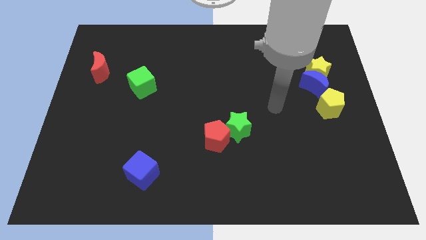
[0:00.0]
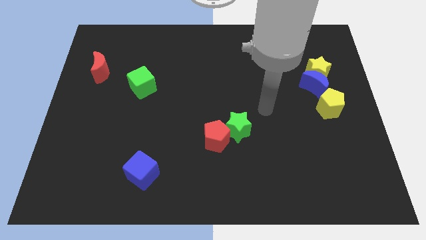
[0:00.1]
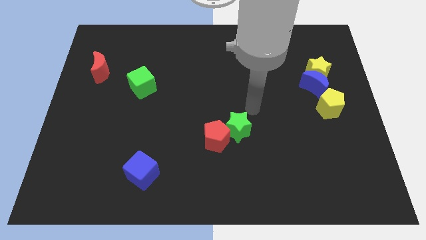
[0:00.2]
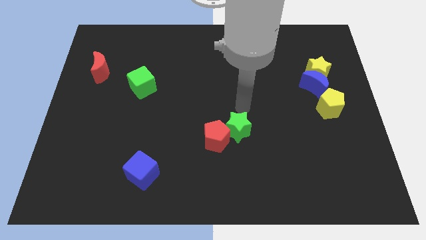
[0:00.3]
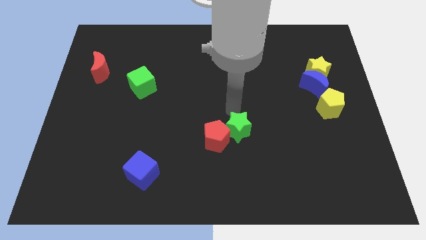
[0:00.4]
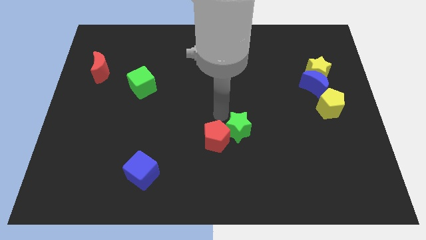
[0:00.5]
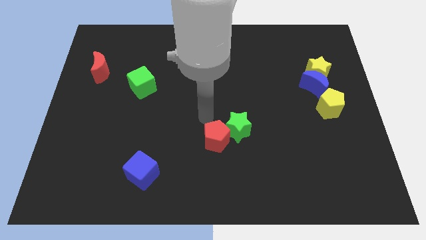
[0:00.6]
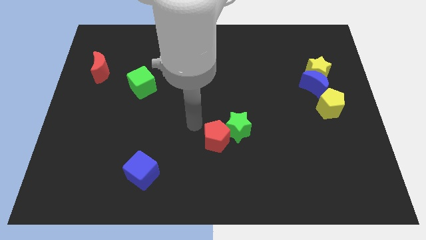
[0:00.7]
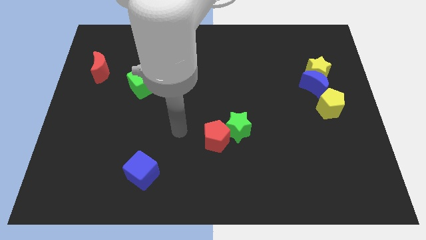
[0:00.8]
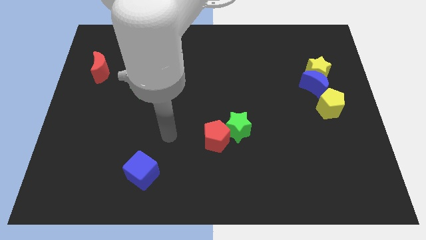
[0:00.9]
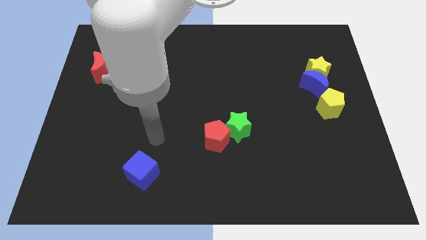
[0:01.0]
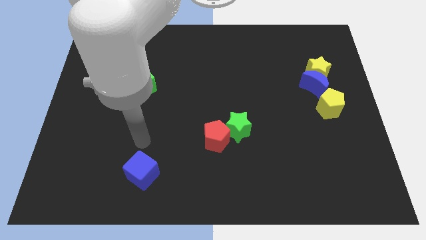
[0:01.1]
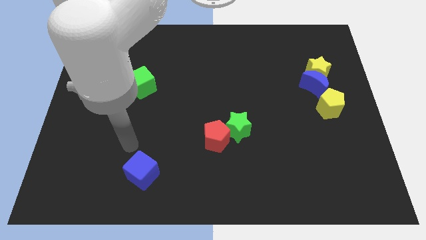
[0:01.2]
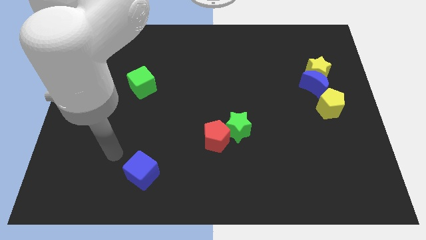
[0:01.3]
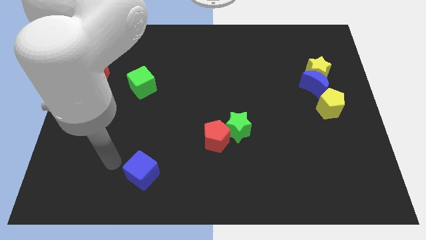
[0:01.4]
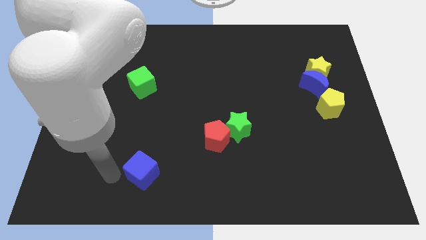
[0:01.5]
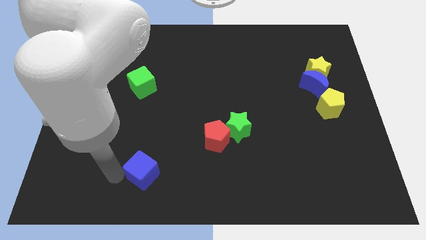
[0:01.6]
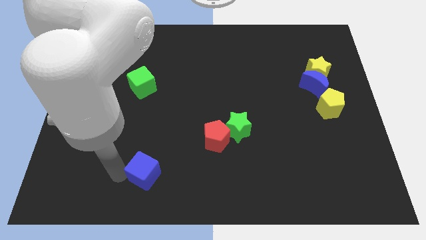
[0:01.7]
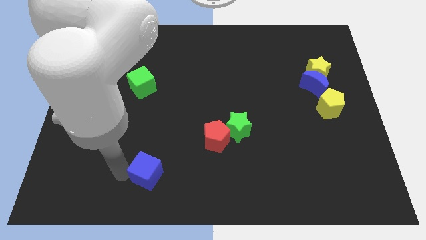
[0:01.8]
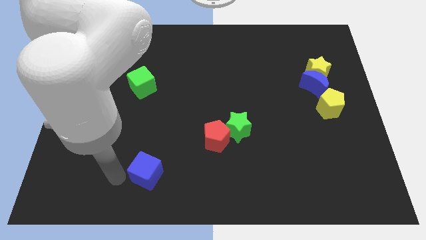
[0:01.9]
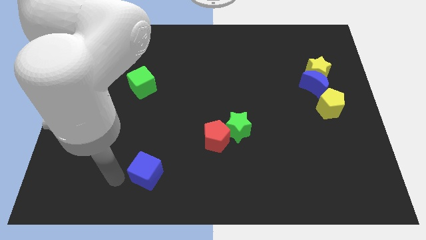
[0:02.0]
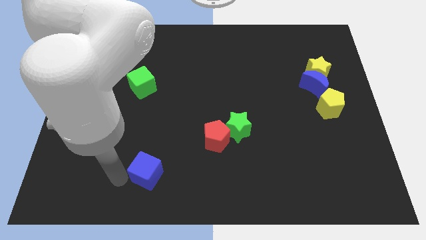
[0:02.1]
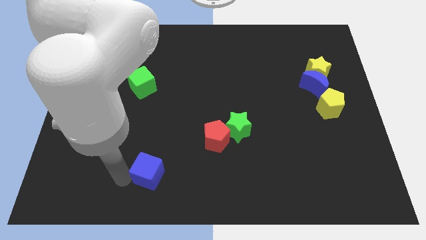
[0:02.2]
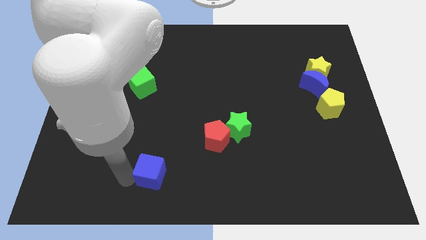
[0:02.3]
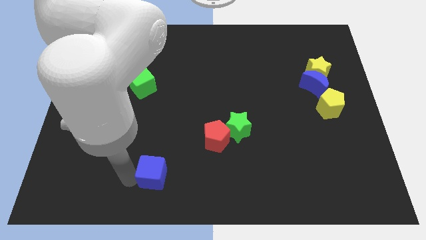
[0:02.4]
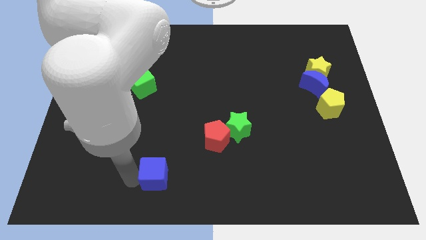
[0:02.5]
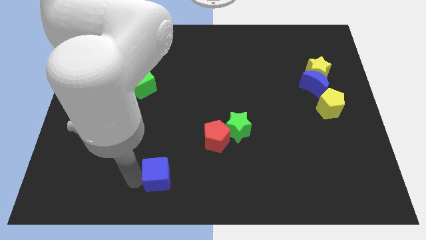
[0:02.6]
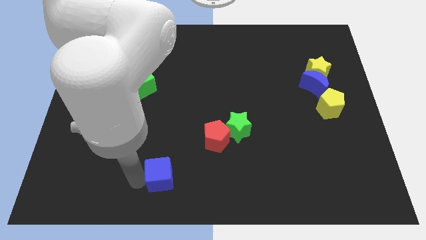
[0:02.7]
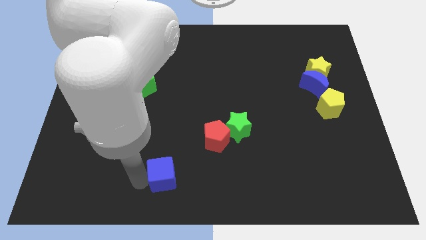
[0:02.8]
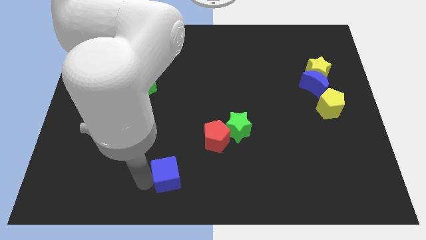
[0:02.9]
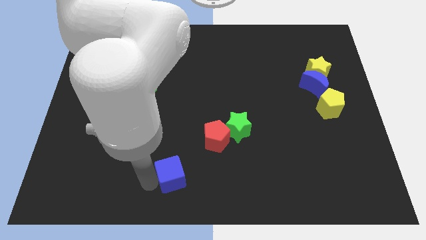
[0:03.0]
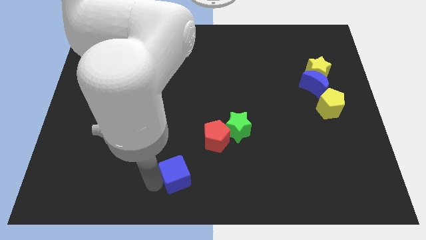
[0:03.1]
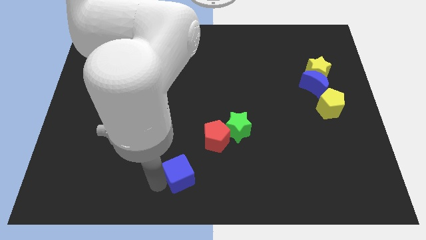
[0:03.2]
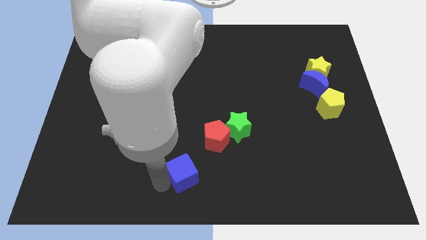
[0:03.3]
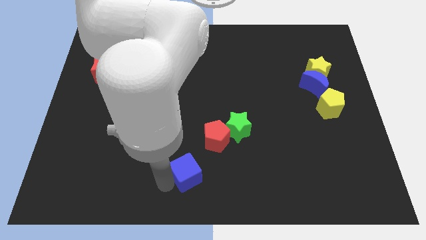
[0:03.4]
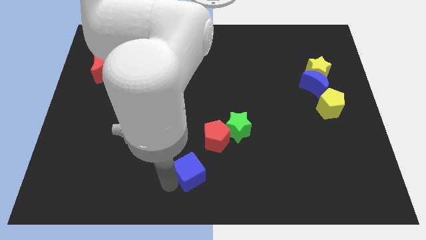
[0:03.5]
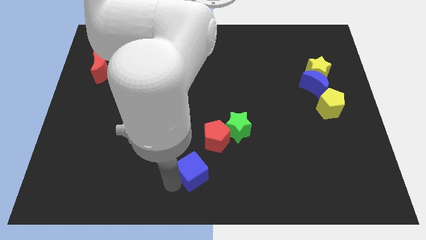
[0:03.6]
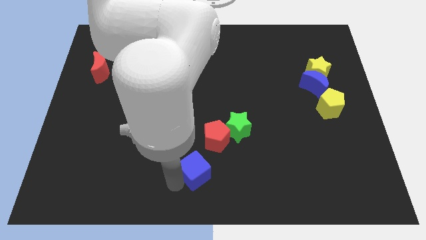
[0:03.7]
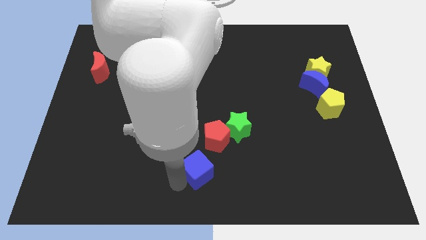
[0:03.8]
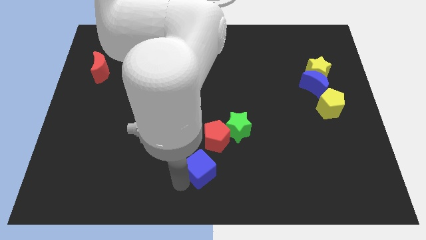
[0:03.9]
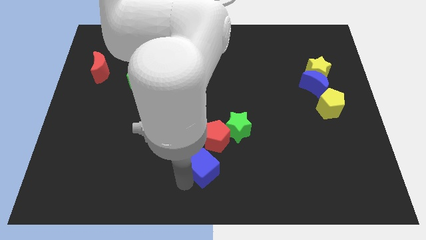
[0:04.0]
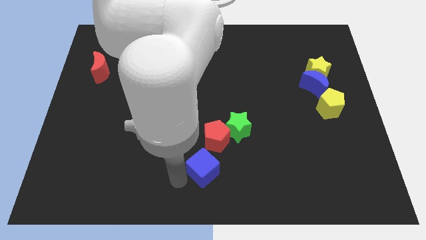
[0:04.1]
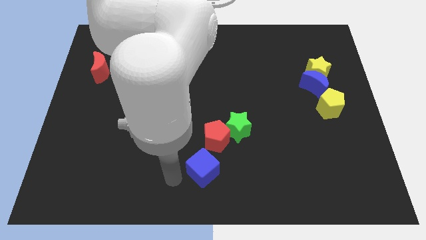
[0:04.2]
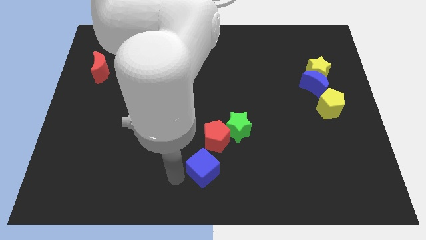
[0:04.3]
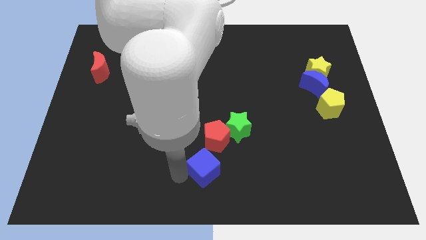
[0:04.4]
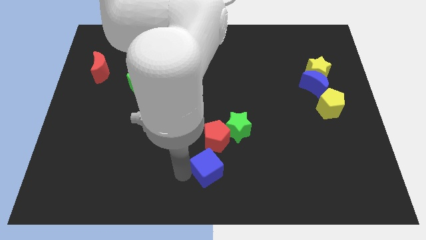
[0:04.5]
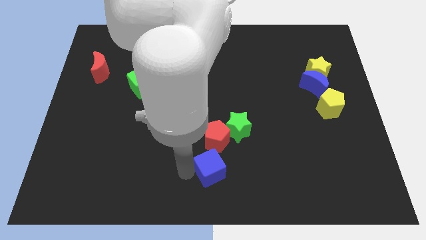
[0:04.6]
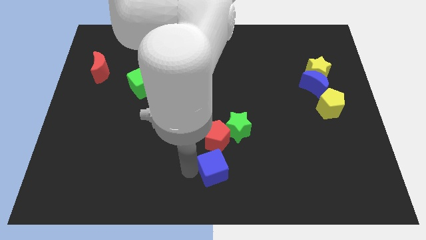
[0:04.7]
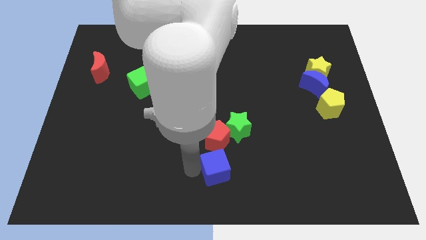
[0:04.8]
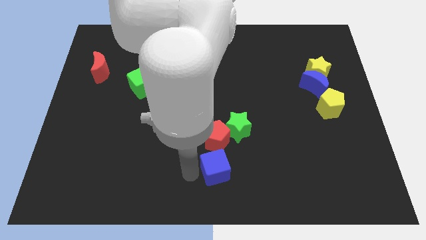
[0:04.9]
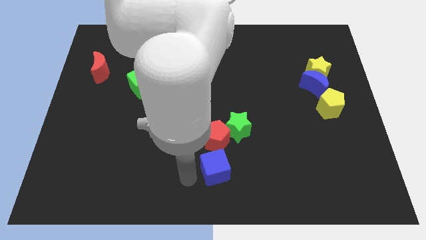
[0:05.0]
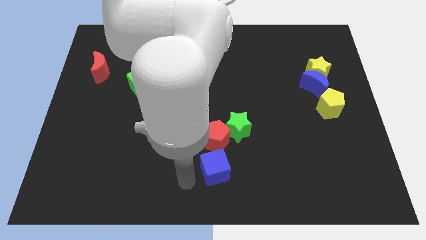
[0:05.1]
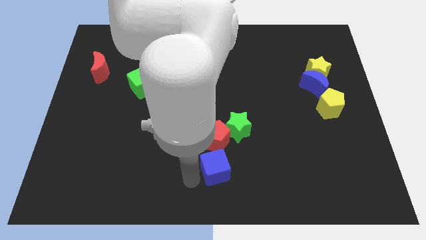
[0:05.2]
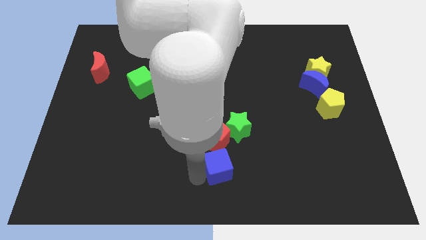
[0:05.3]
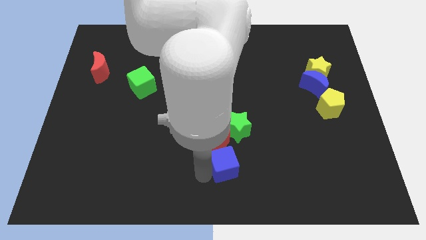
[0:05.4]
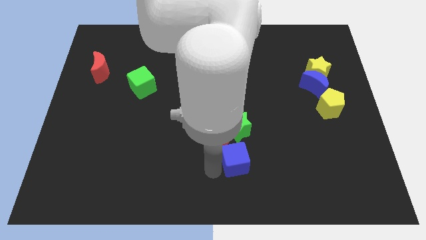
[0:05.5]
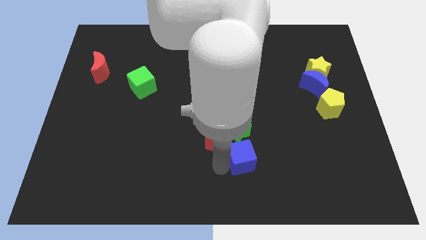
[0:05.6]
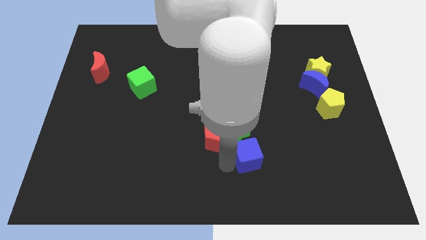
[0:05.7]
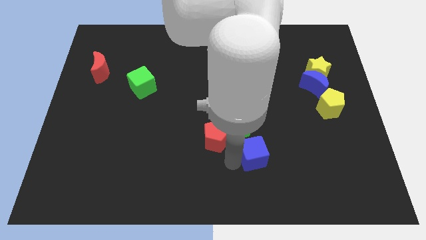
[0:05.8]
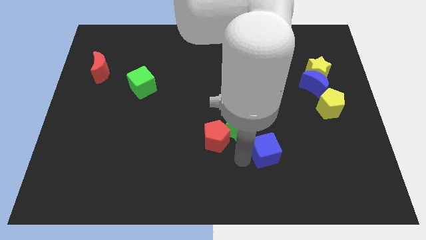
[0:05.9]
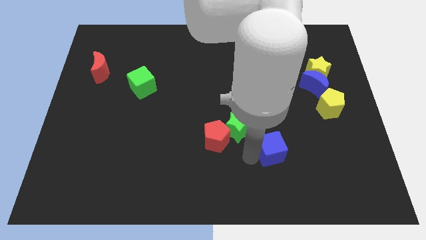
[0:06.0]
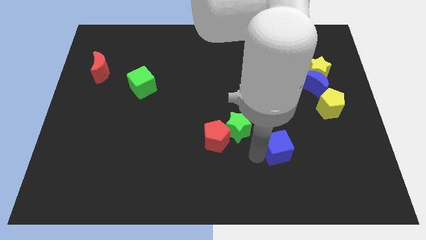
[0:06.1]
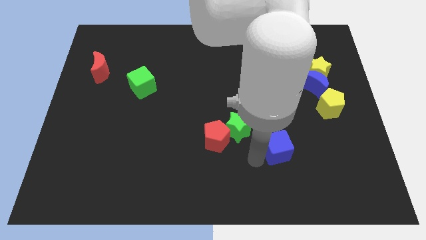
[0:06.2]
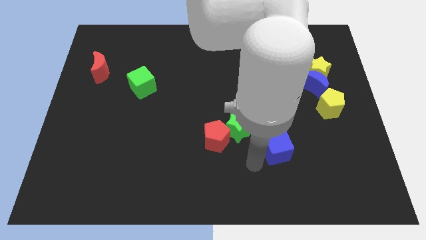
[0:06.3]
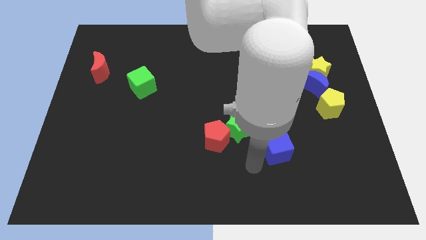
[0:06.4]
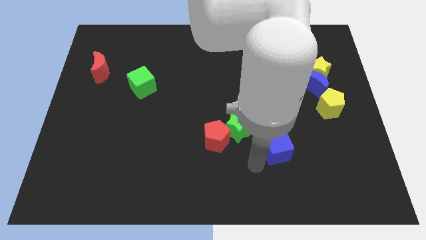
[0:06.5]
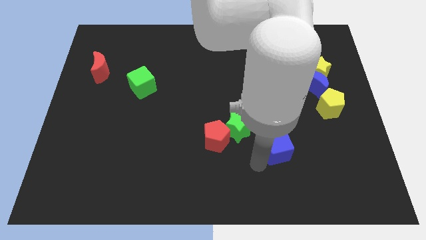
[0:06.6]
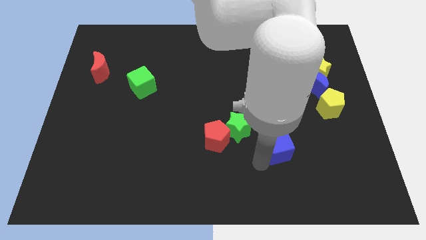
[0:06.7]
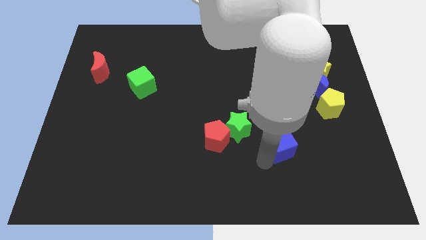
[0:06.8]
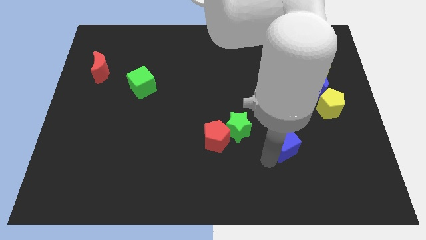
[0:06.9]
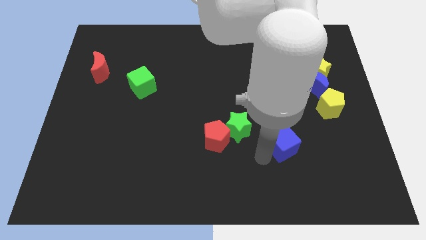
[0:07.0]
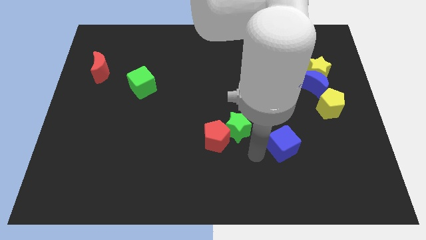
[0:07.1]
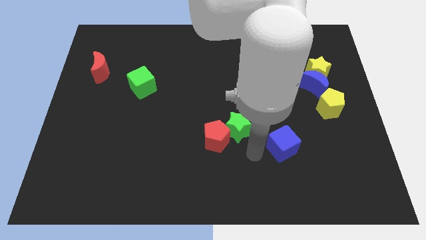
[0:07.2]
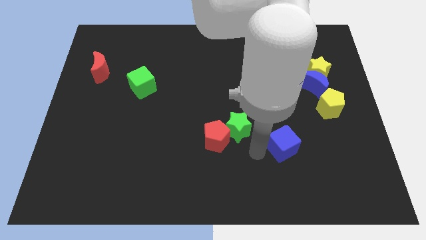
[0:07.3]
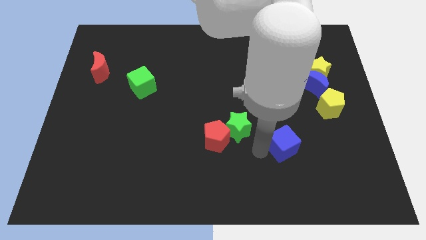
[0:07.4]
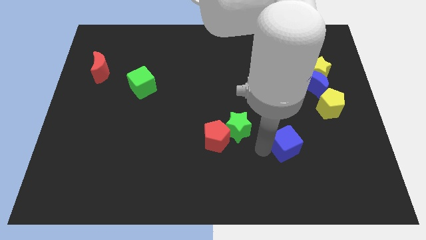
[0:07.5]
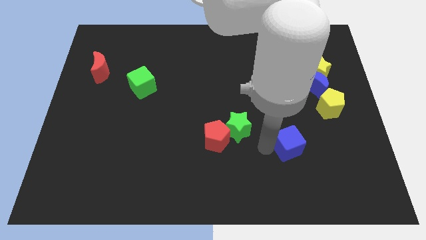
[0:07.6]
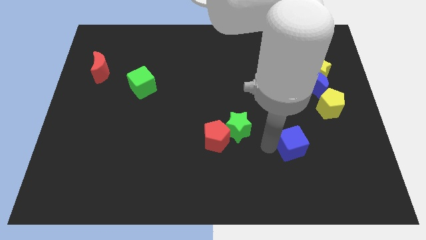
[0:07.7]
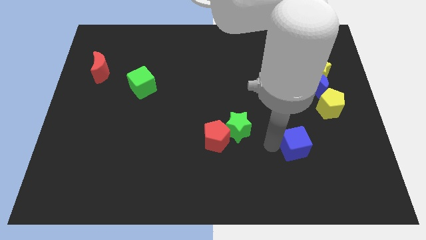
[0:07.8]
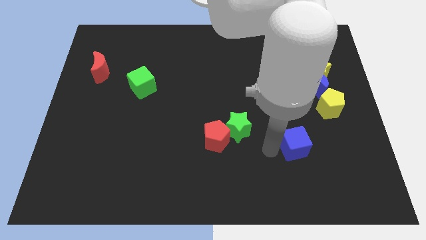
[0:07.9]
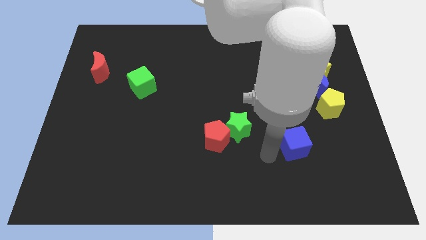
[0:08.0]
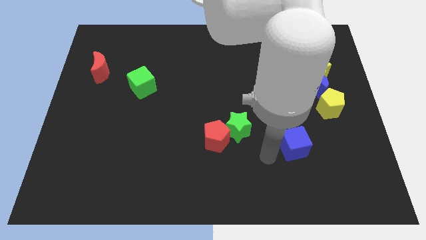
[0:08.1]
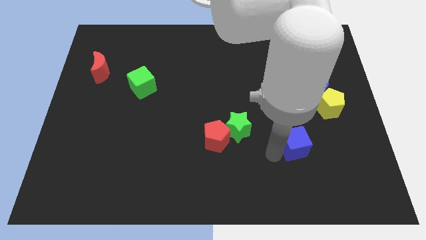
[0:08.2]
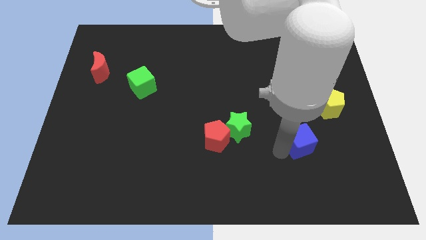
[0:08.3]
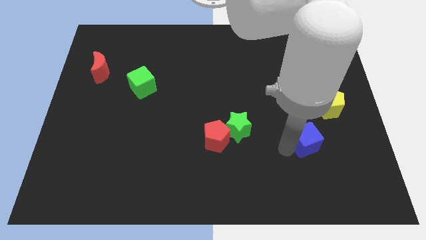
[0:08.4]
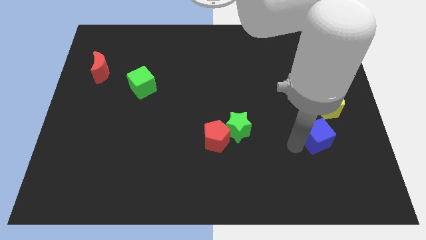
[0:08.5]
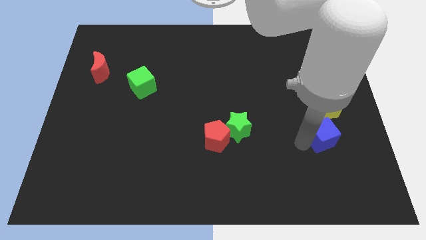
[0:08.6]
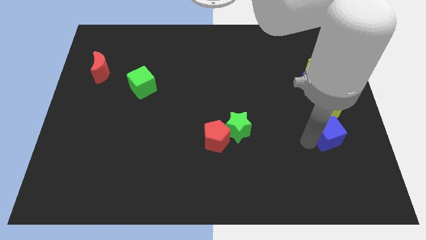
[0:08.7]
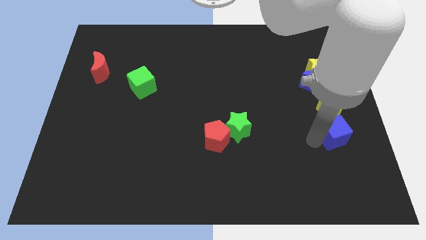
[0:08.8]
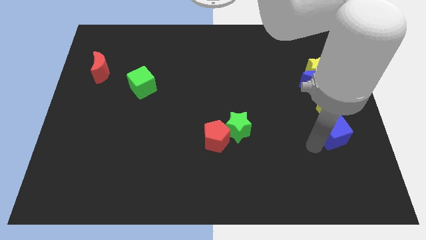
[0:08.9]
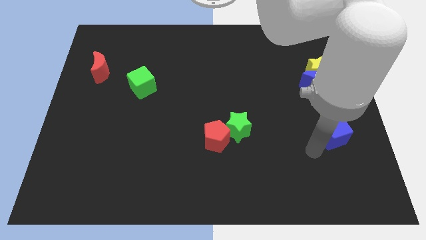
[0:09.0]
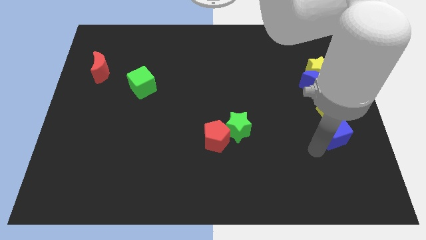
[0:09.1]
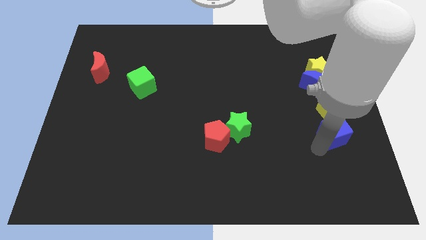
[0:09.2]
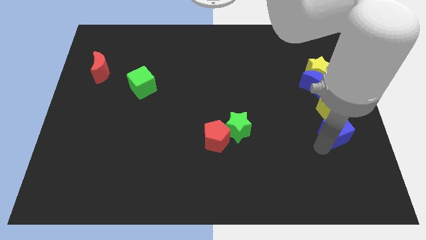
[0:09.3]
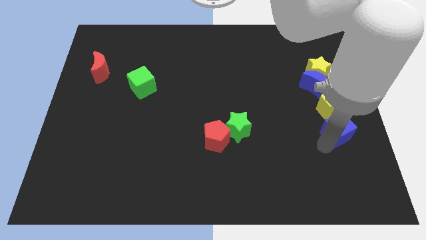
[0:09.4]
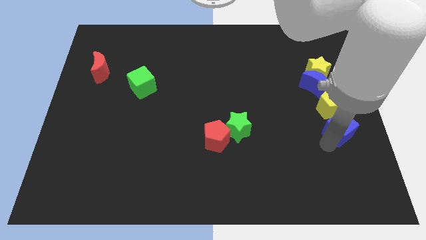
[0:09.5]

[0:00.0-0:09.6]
push the blue cube to the right side of the board
